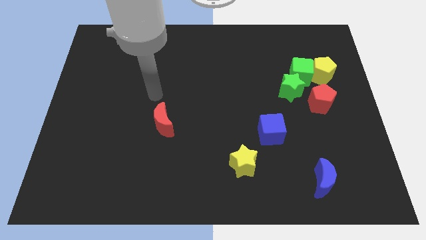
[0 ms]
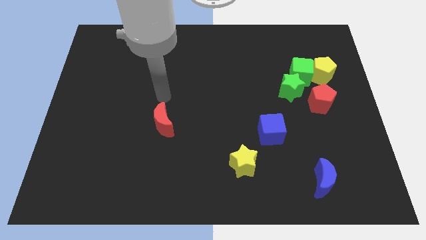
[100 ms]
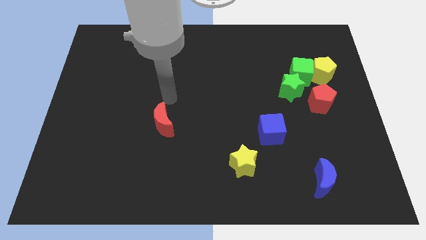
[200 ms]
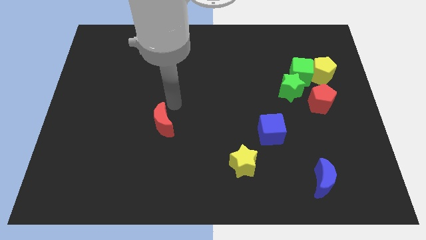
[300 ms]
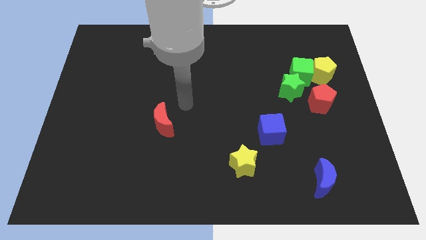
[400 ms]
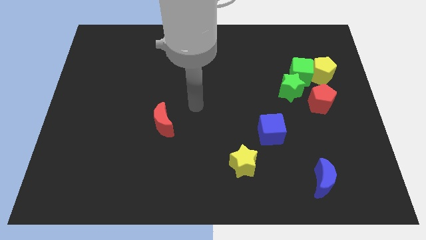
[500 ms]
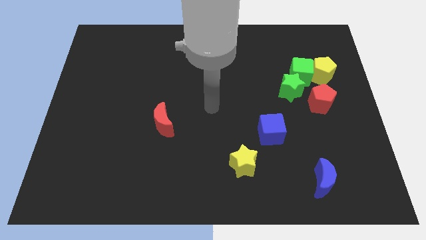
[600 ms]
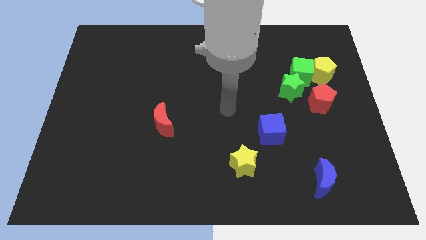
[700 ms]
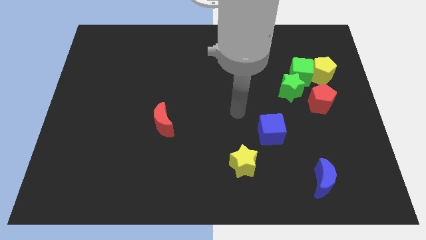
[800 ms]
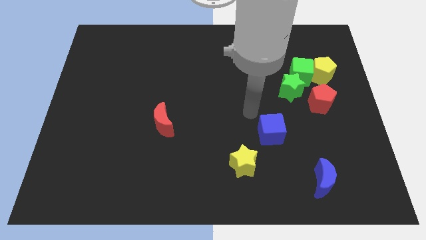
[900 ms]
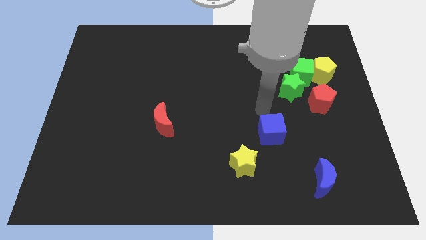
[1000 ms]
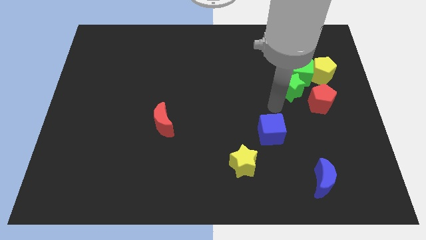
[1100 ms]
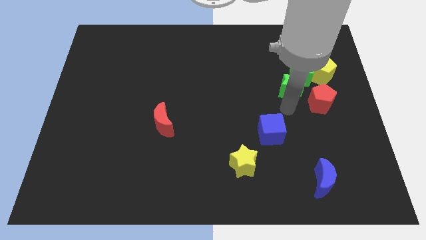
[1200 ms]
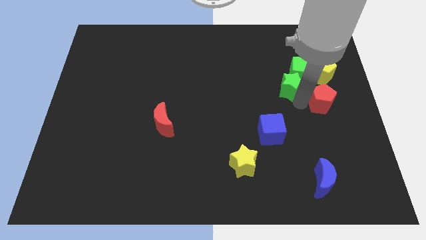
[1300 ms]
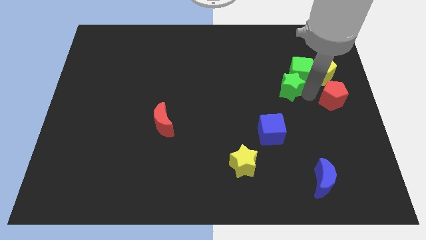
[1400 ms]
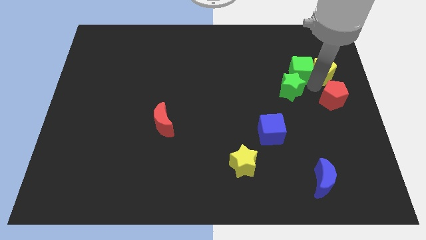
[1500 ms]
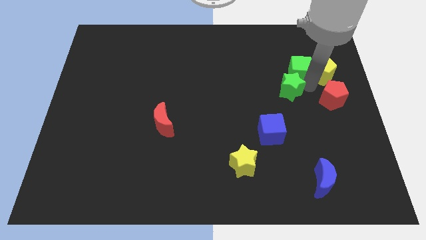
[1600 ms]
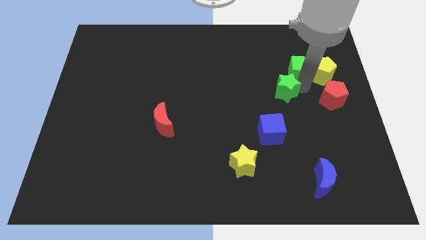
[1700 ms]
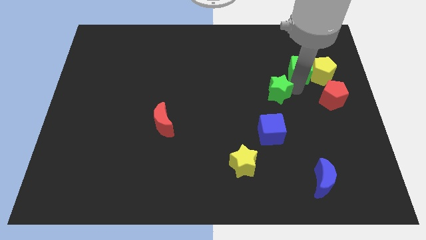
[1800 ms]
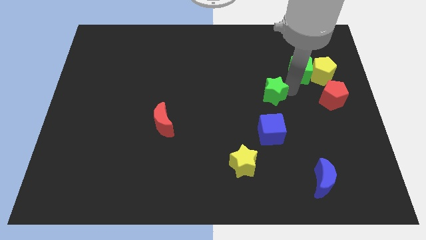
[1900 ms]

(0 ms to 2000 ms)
move the green star away from the green cube and red pentagon

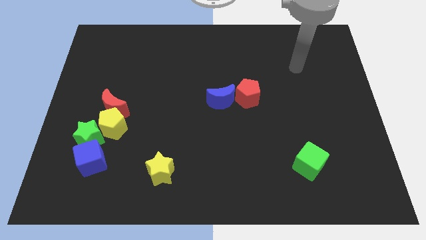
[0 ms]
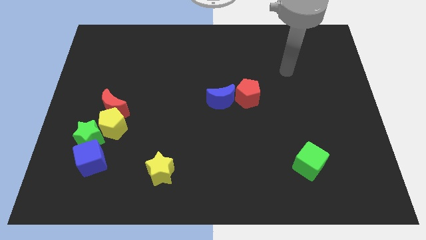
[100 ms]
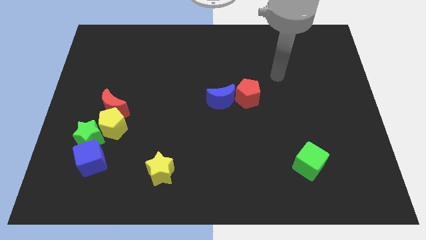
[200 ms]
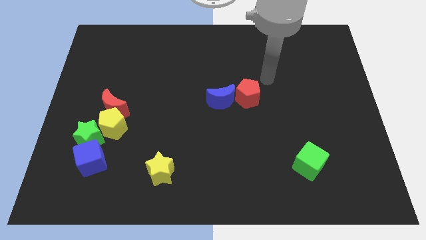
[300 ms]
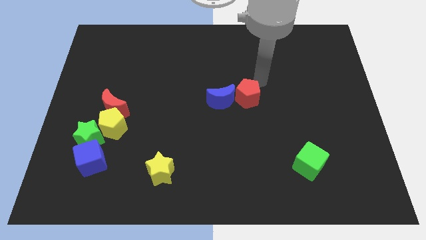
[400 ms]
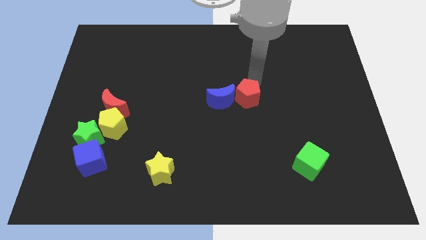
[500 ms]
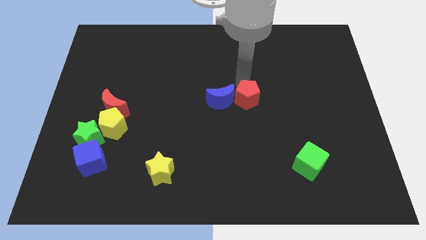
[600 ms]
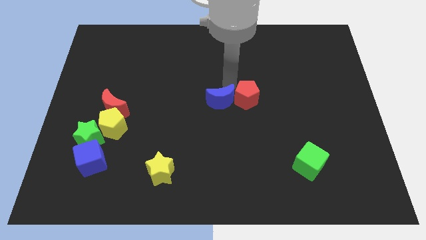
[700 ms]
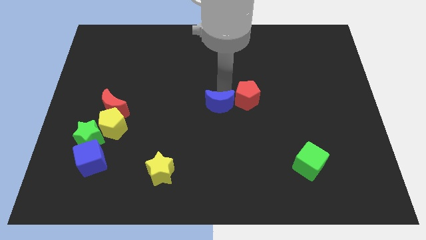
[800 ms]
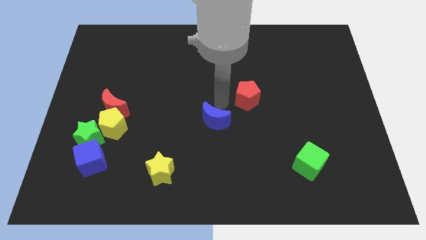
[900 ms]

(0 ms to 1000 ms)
move the red pentagon away from the blue moon

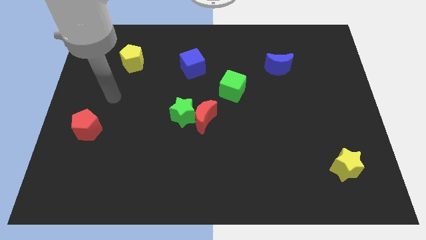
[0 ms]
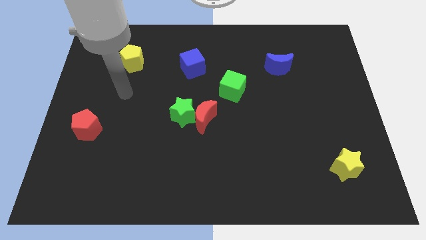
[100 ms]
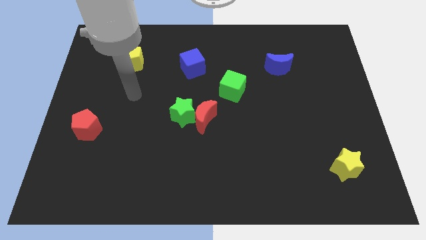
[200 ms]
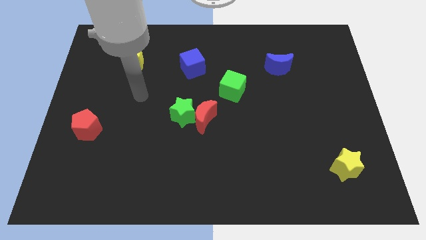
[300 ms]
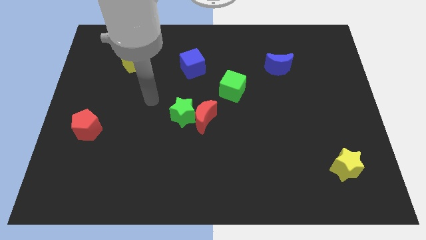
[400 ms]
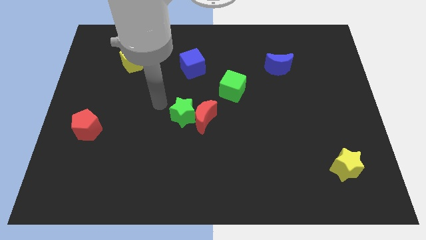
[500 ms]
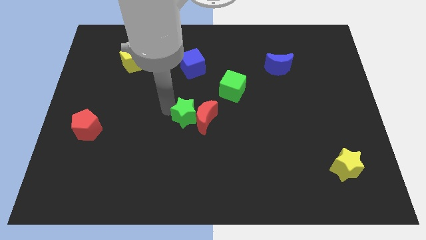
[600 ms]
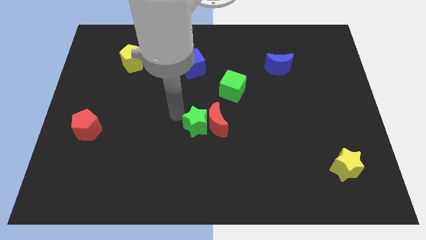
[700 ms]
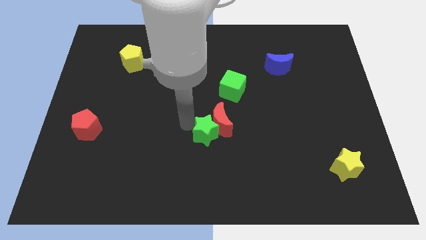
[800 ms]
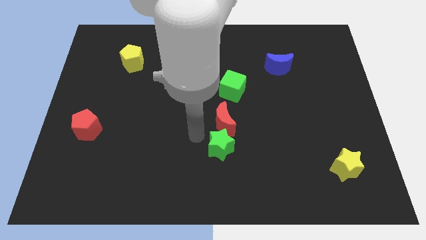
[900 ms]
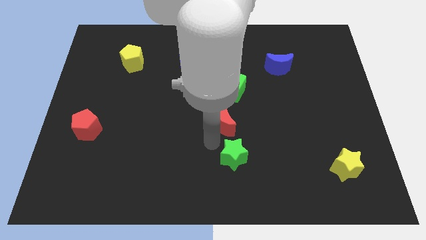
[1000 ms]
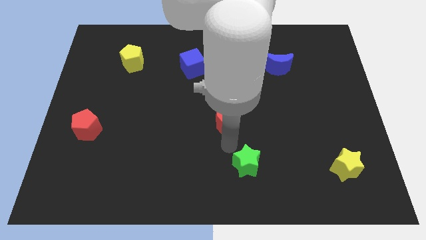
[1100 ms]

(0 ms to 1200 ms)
separate the red moon from the green star

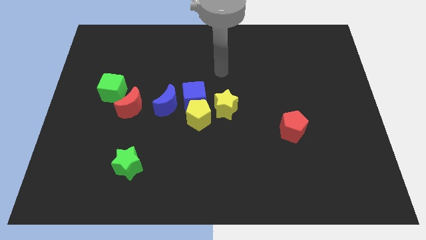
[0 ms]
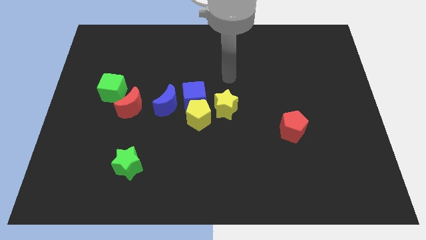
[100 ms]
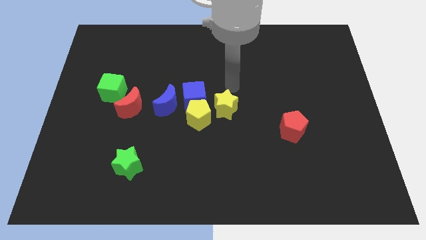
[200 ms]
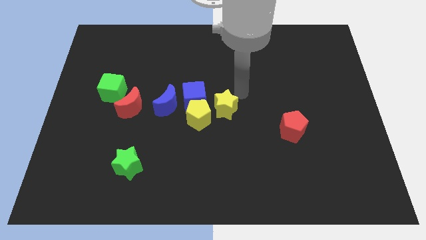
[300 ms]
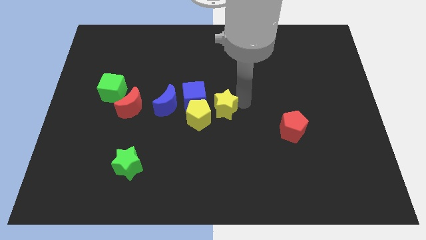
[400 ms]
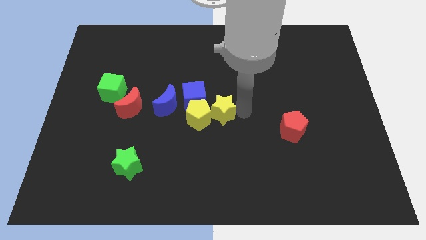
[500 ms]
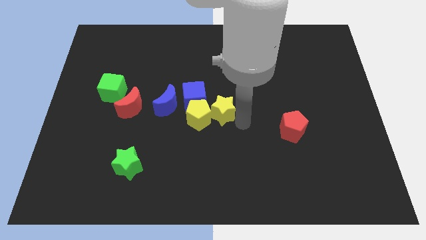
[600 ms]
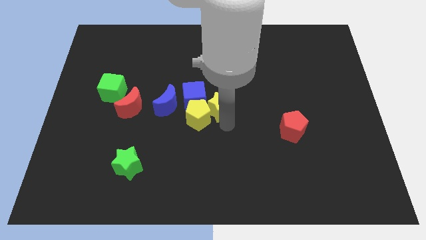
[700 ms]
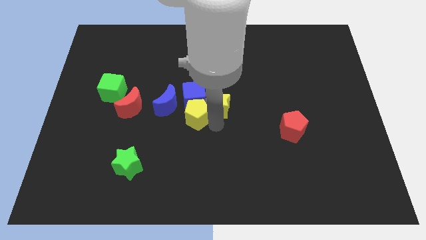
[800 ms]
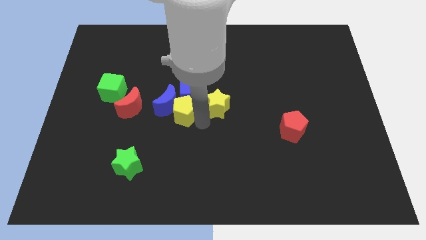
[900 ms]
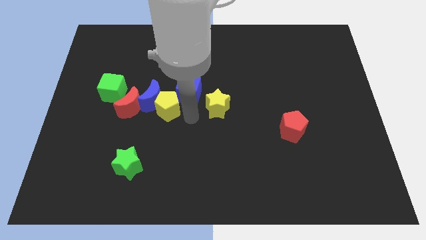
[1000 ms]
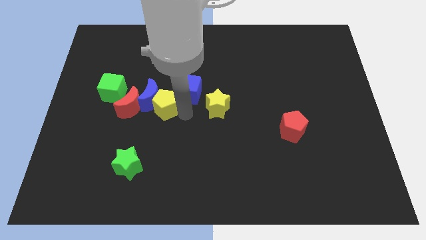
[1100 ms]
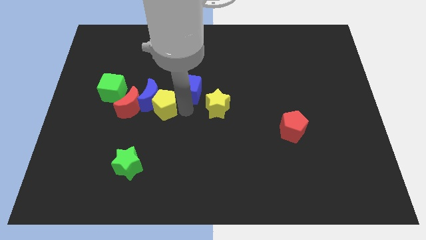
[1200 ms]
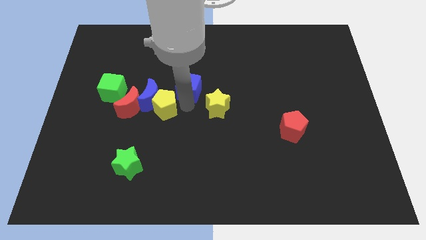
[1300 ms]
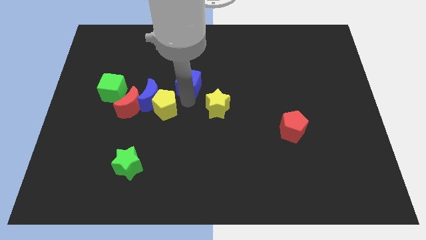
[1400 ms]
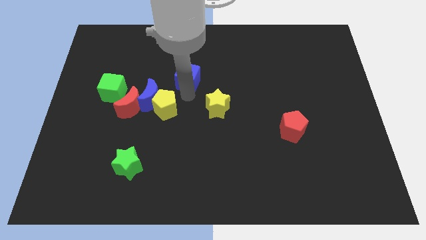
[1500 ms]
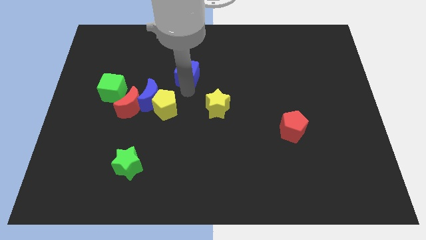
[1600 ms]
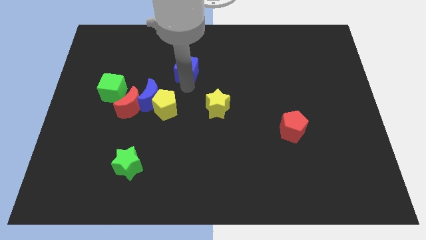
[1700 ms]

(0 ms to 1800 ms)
separate the blue cube from the clump

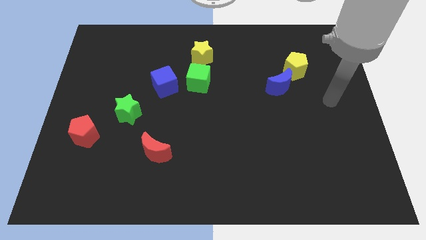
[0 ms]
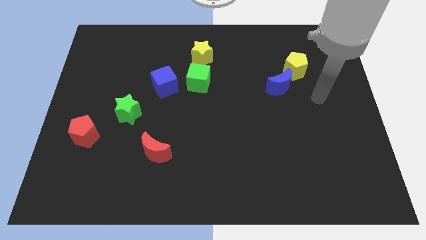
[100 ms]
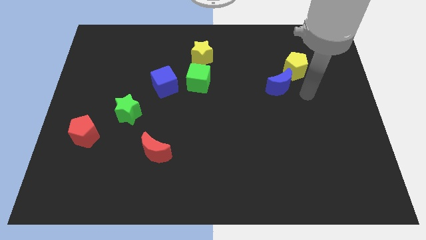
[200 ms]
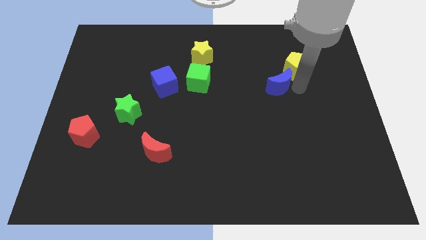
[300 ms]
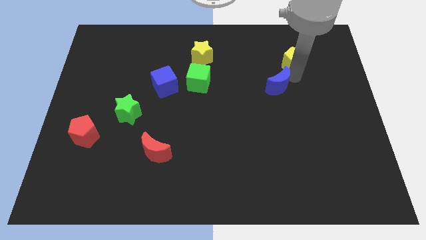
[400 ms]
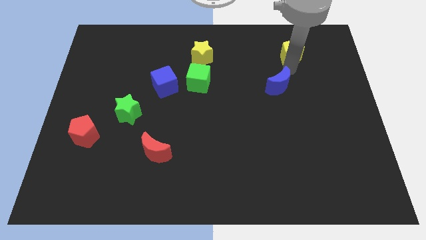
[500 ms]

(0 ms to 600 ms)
move the blue moon away from the yellow pentagon

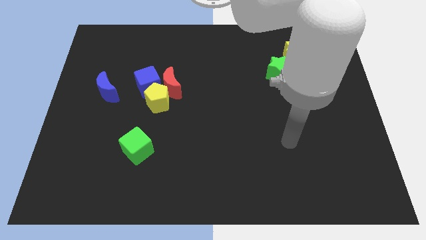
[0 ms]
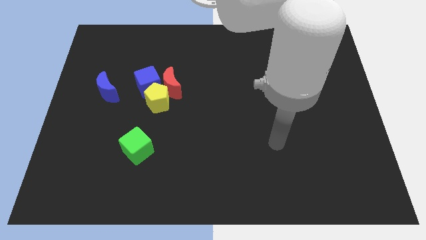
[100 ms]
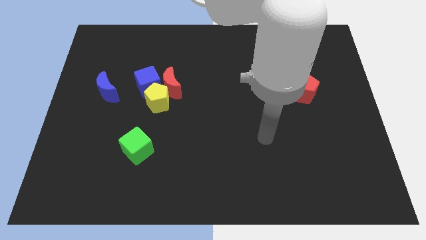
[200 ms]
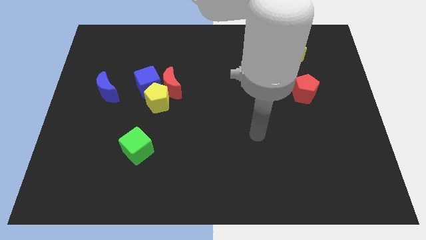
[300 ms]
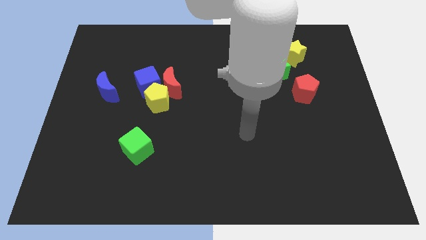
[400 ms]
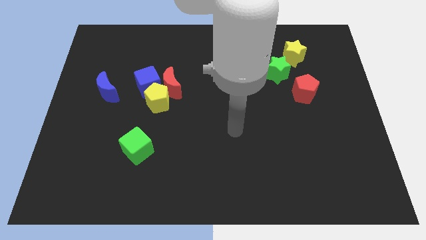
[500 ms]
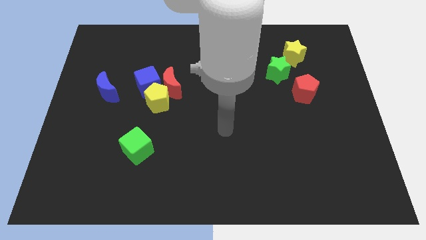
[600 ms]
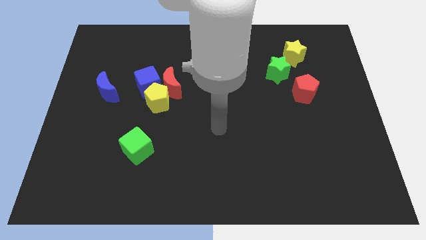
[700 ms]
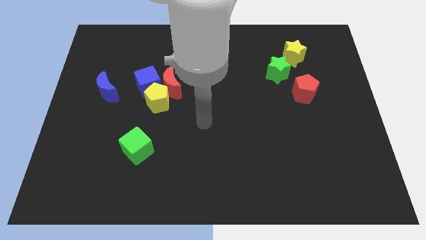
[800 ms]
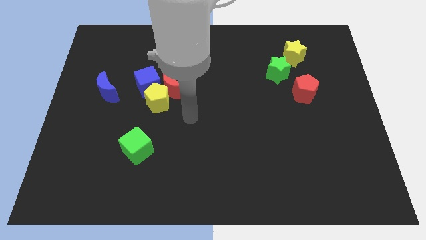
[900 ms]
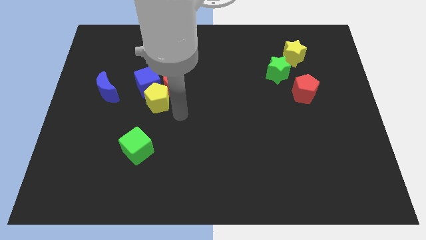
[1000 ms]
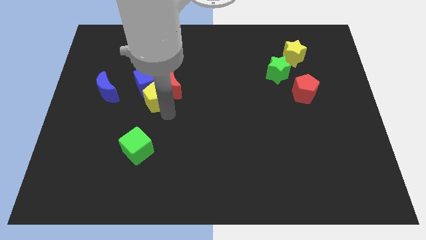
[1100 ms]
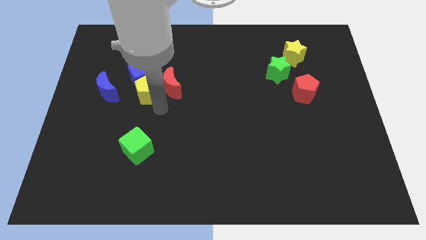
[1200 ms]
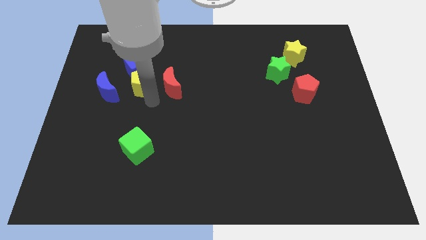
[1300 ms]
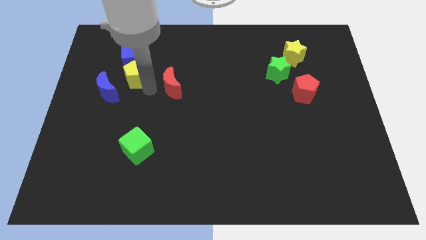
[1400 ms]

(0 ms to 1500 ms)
pull the red moon apart from the yellow pentagon and blue cube

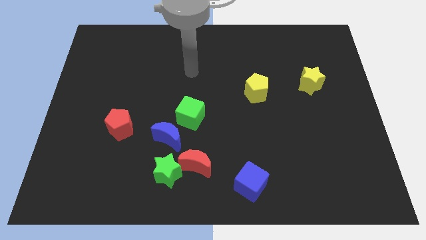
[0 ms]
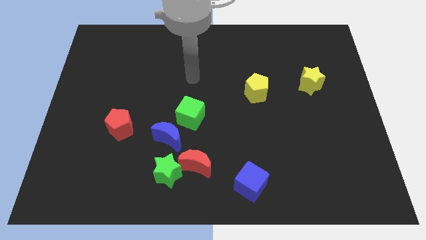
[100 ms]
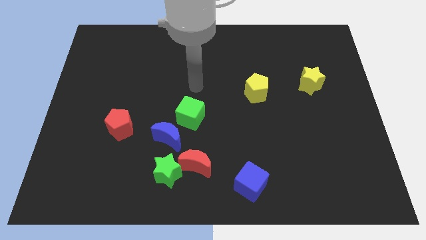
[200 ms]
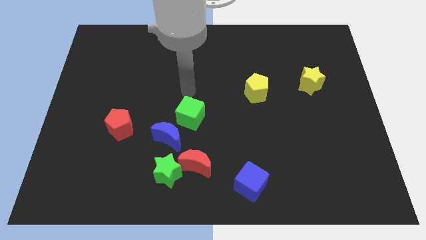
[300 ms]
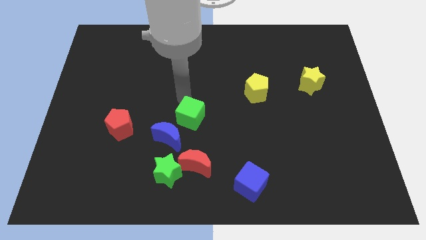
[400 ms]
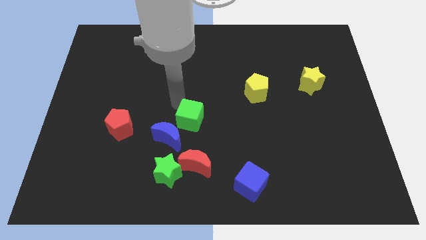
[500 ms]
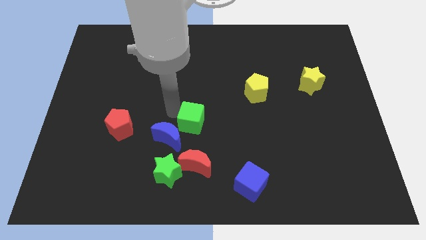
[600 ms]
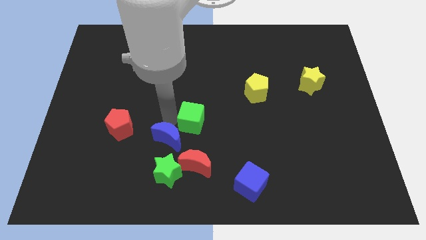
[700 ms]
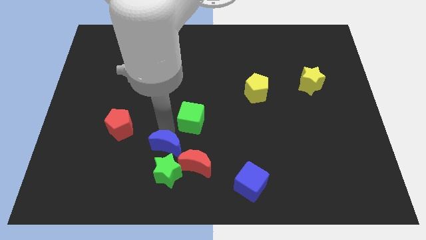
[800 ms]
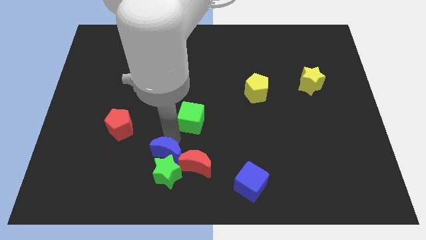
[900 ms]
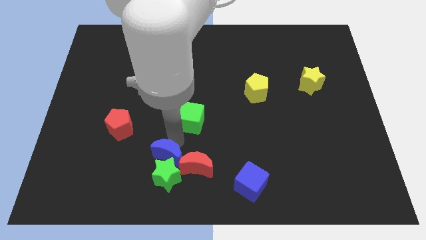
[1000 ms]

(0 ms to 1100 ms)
separate the green cube from the blue moon
